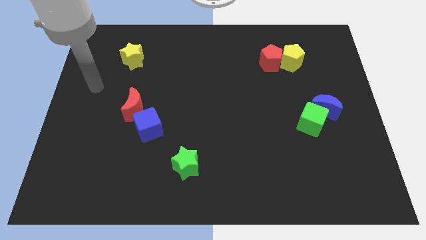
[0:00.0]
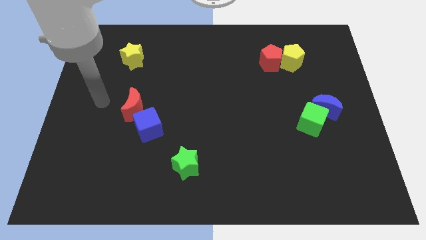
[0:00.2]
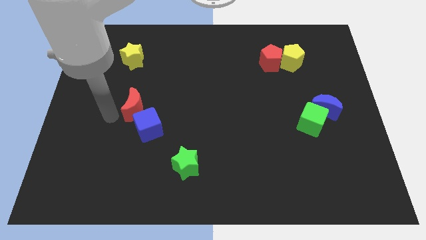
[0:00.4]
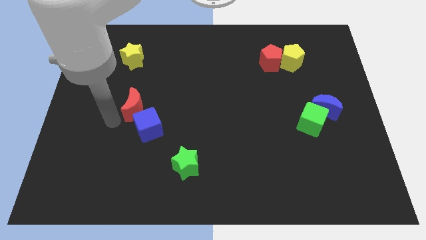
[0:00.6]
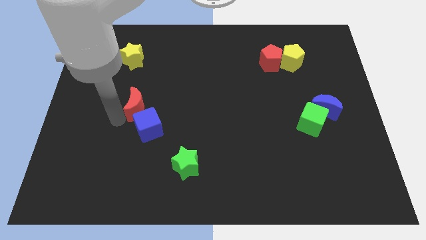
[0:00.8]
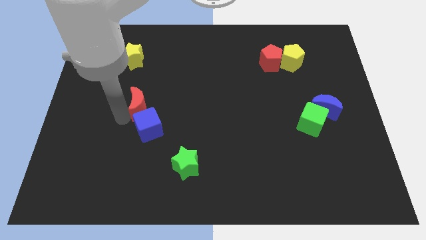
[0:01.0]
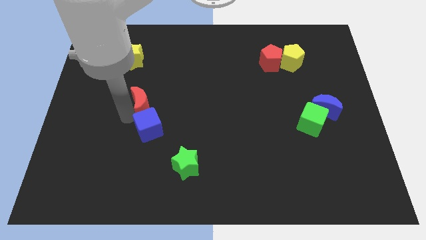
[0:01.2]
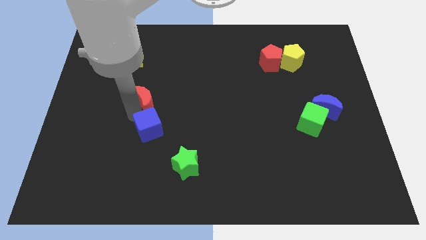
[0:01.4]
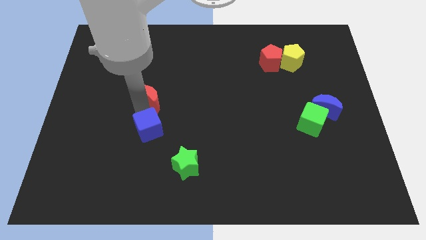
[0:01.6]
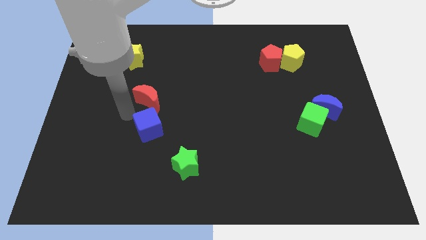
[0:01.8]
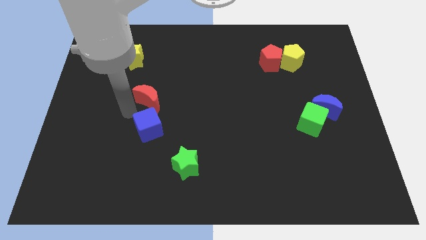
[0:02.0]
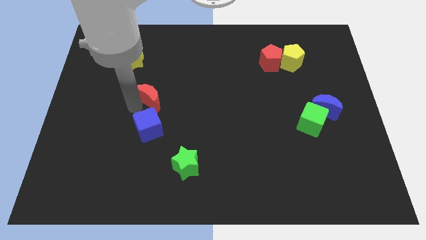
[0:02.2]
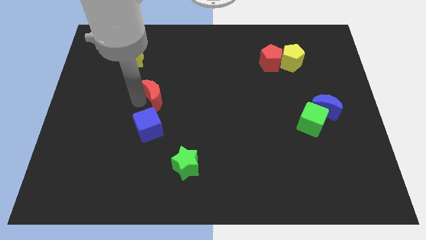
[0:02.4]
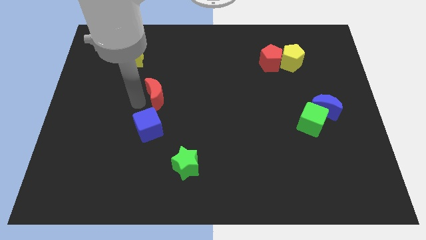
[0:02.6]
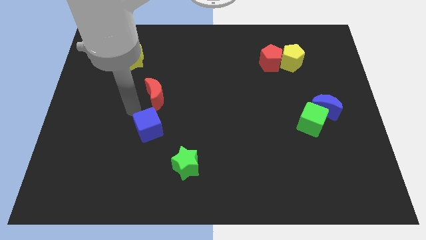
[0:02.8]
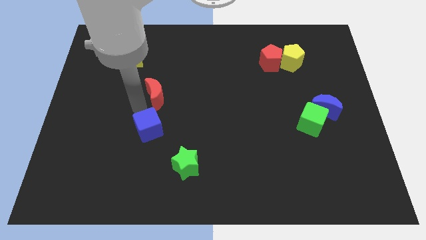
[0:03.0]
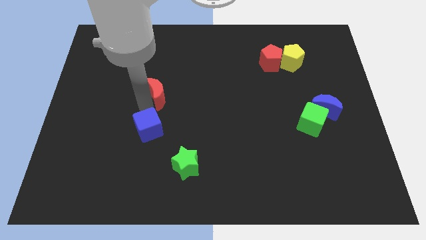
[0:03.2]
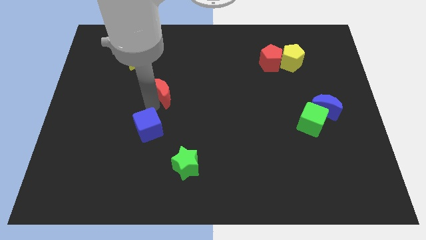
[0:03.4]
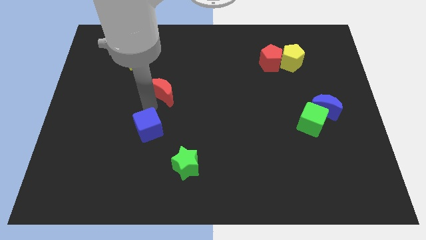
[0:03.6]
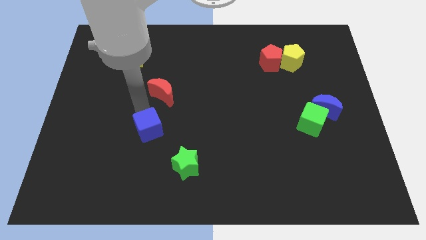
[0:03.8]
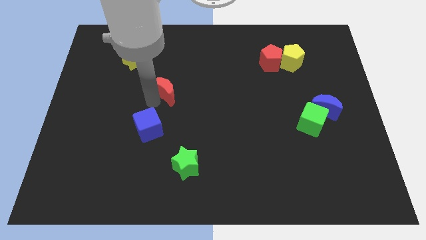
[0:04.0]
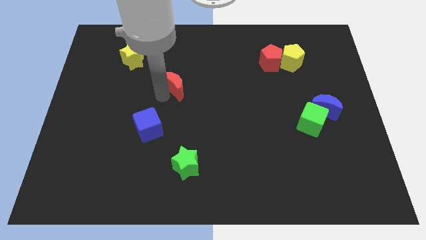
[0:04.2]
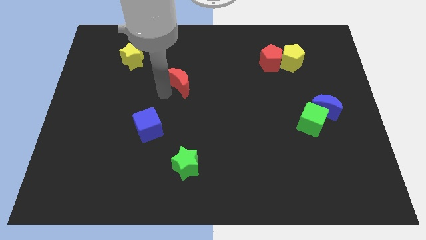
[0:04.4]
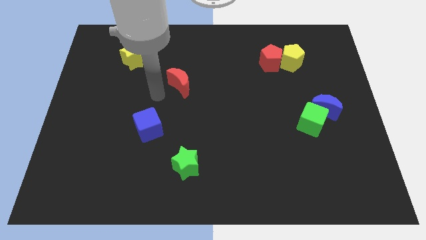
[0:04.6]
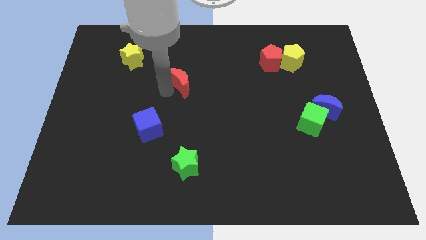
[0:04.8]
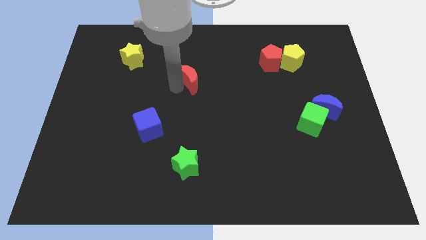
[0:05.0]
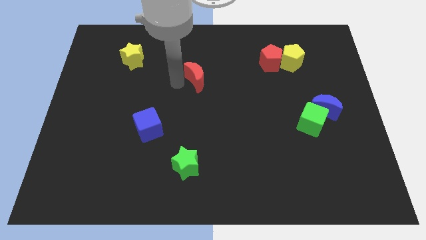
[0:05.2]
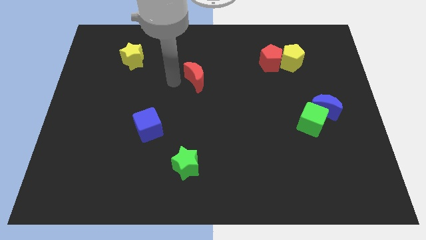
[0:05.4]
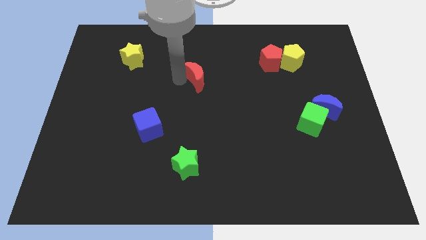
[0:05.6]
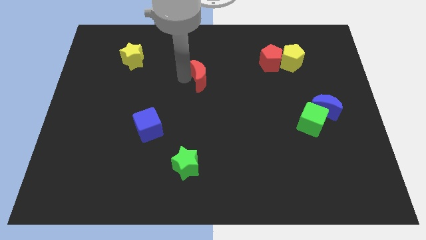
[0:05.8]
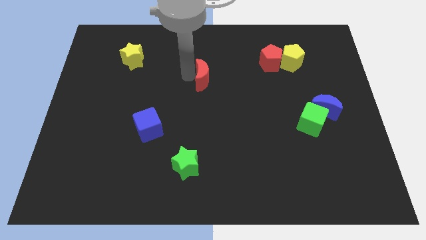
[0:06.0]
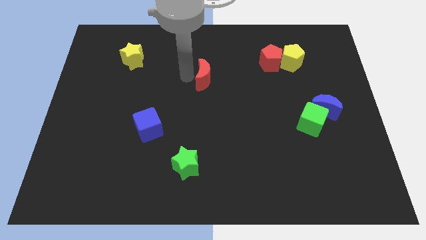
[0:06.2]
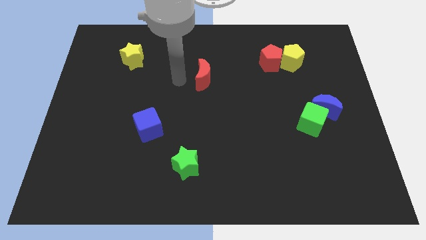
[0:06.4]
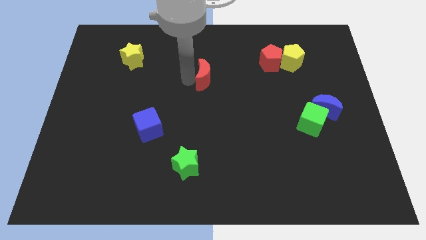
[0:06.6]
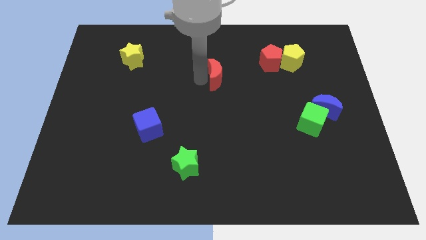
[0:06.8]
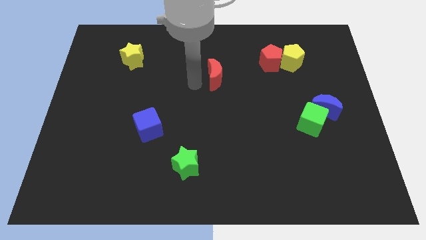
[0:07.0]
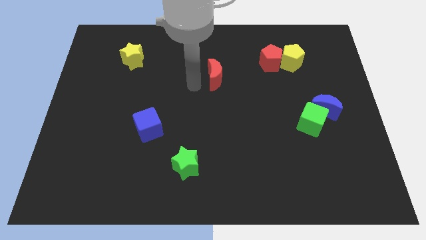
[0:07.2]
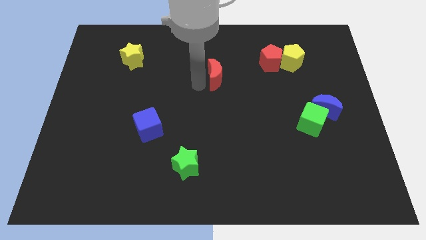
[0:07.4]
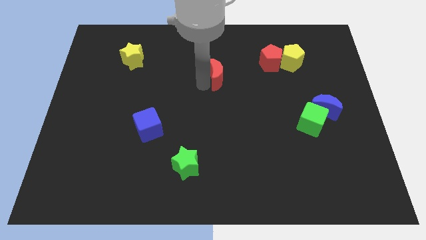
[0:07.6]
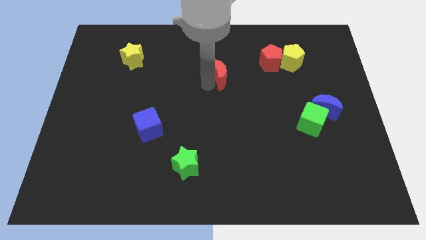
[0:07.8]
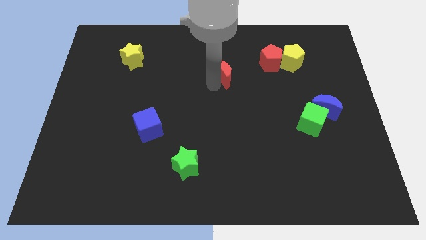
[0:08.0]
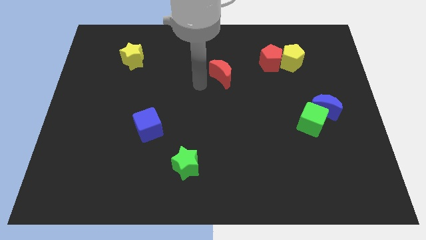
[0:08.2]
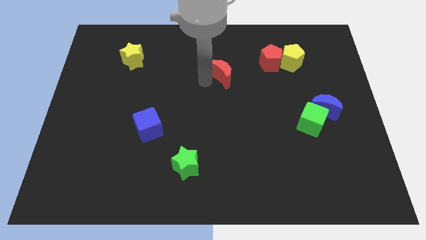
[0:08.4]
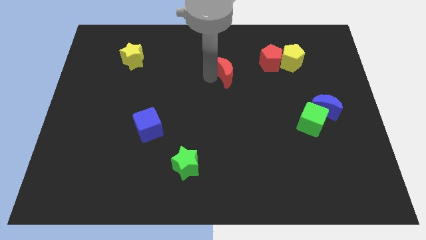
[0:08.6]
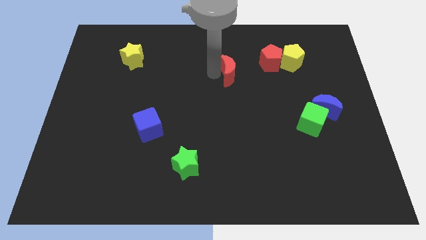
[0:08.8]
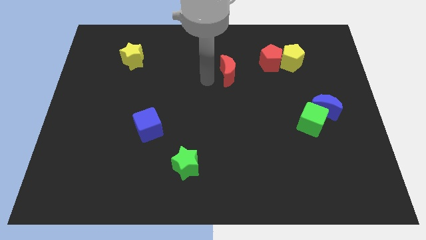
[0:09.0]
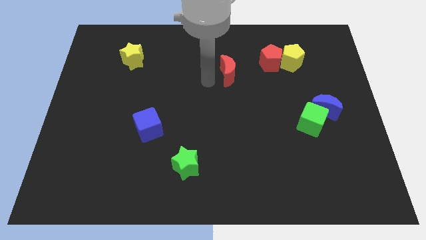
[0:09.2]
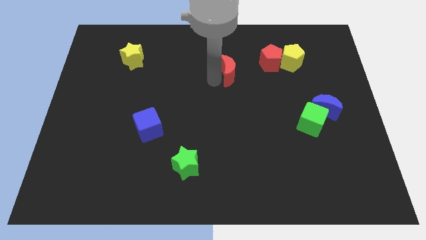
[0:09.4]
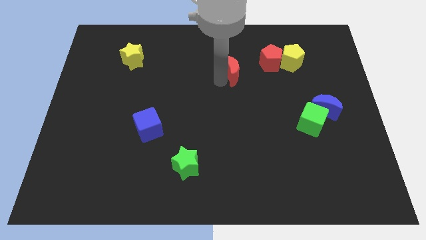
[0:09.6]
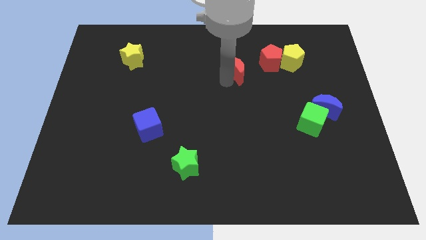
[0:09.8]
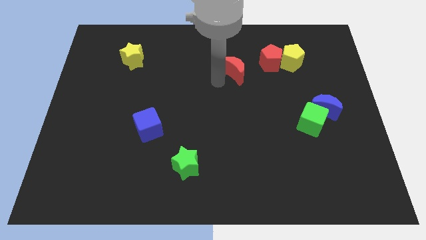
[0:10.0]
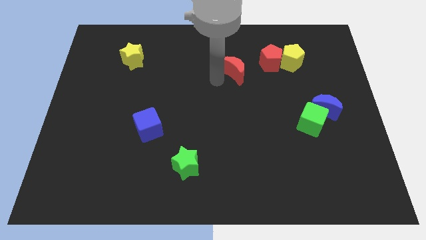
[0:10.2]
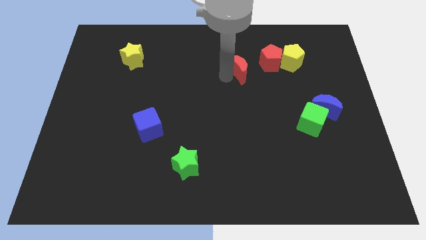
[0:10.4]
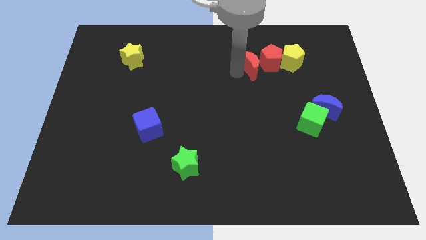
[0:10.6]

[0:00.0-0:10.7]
push the red moon to the red pentagon

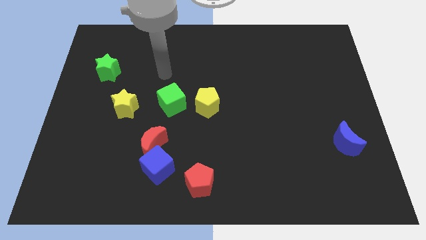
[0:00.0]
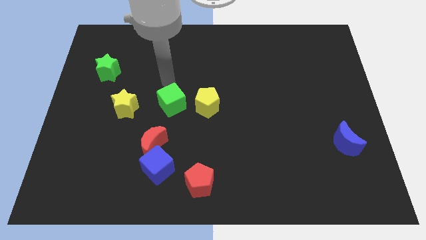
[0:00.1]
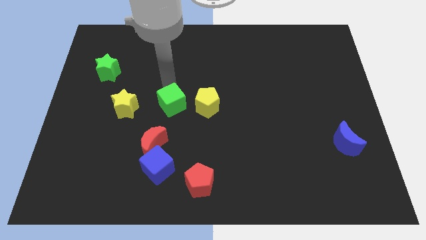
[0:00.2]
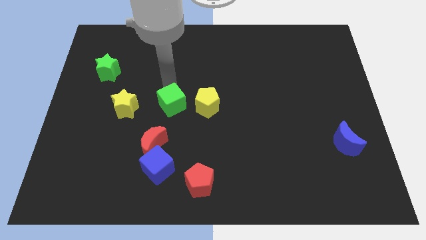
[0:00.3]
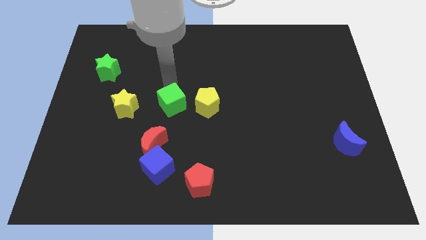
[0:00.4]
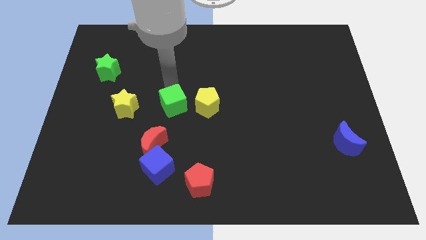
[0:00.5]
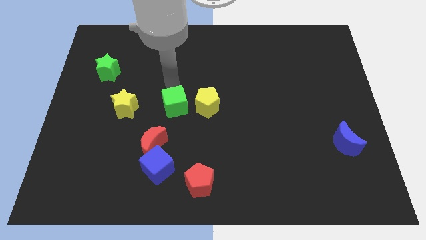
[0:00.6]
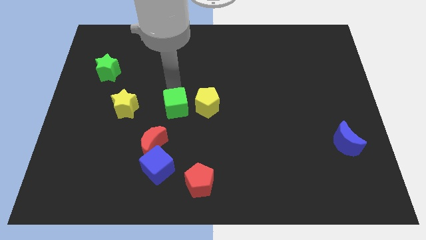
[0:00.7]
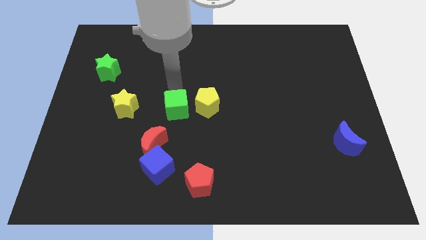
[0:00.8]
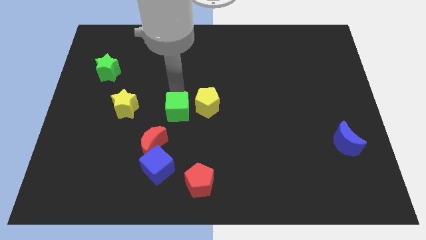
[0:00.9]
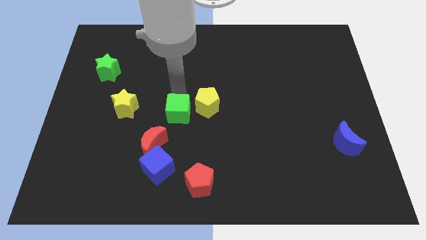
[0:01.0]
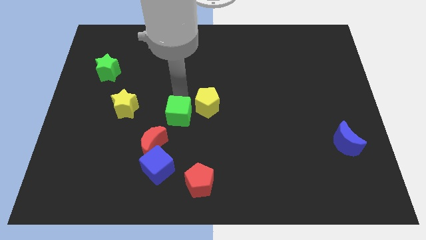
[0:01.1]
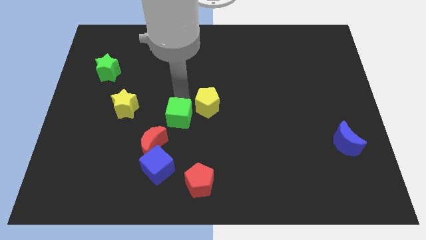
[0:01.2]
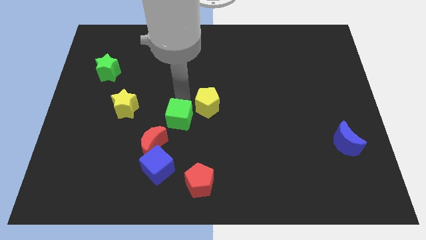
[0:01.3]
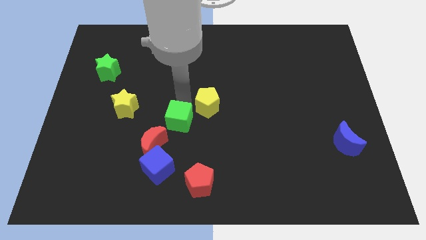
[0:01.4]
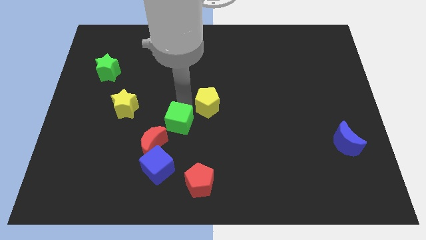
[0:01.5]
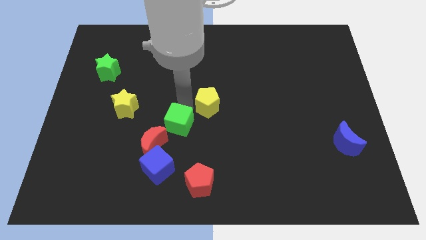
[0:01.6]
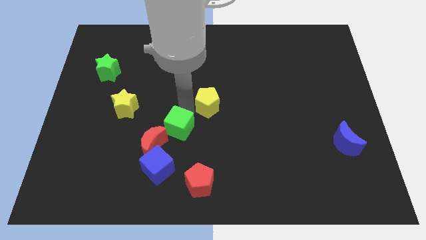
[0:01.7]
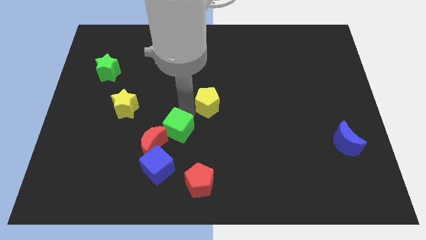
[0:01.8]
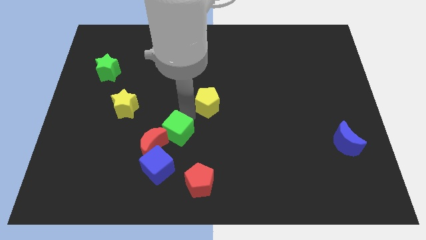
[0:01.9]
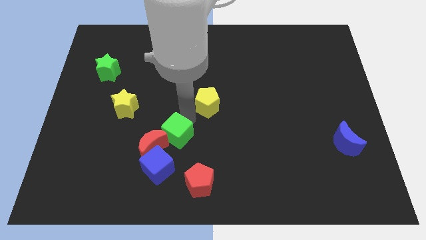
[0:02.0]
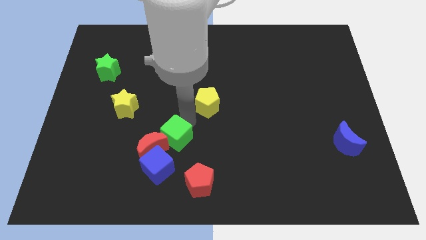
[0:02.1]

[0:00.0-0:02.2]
put the green cube next to the red moon
